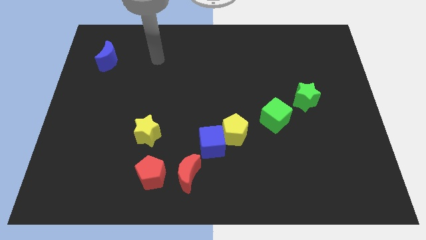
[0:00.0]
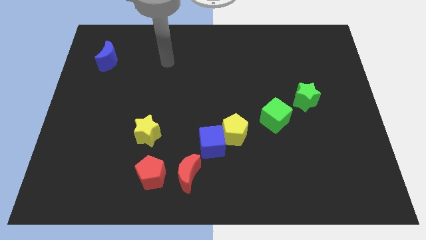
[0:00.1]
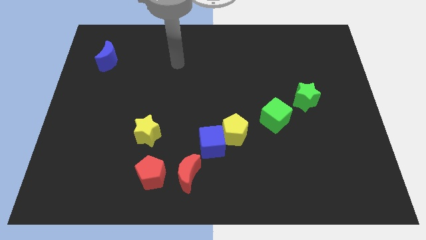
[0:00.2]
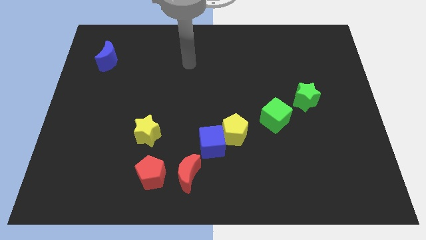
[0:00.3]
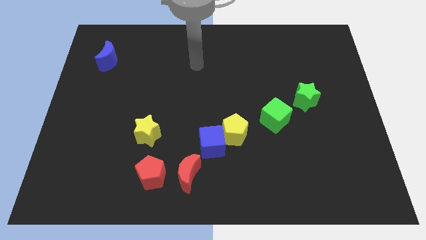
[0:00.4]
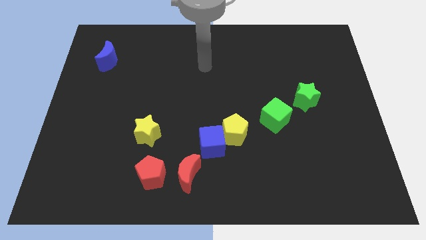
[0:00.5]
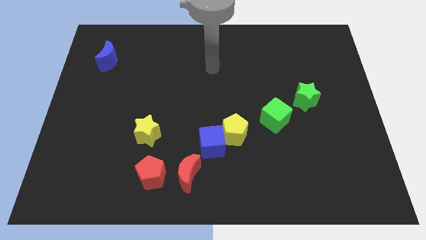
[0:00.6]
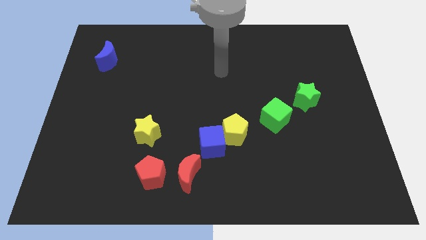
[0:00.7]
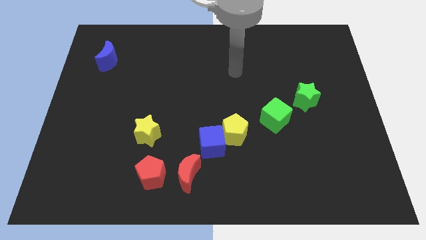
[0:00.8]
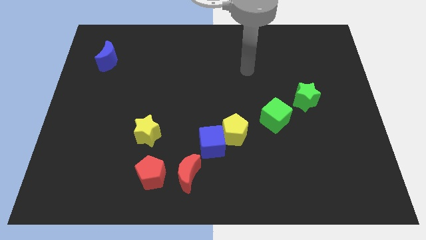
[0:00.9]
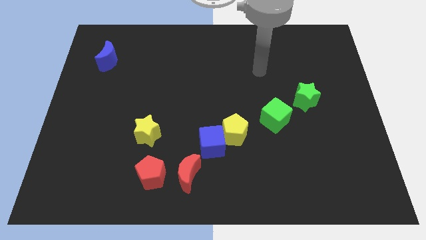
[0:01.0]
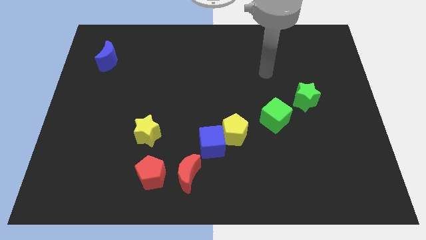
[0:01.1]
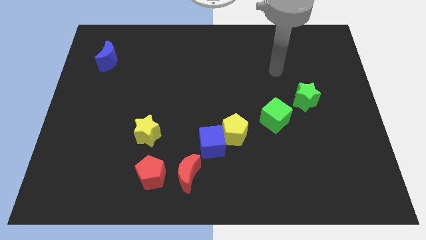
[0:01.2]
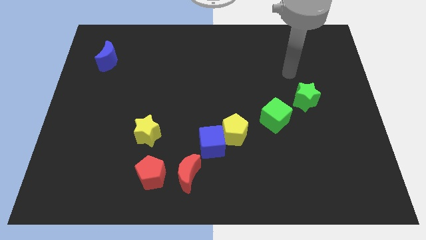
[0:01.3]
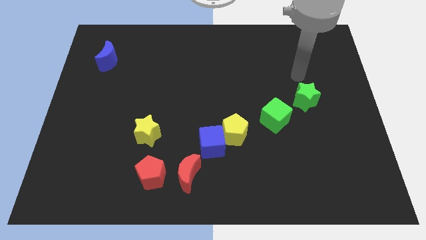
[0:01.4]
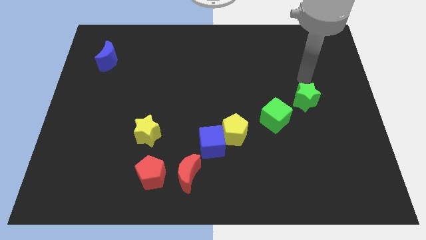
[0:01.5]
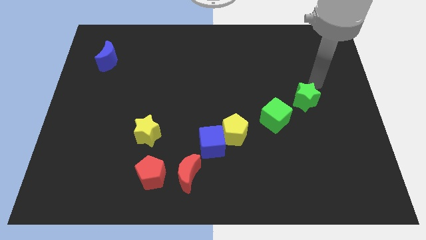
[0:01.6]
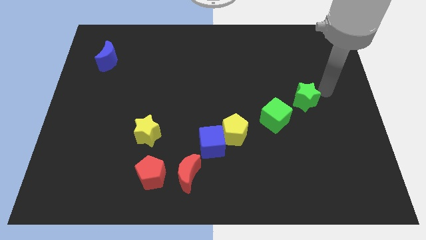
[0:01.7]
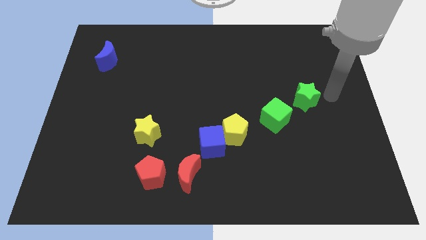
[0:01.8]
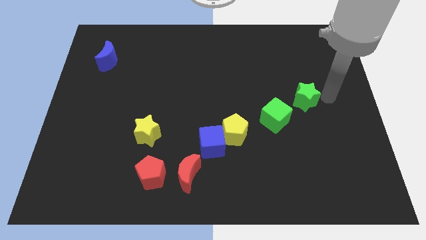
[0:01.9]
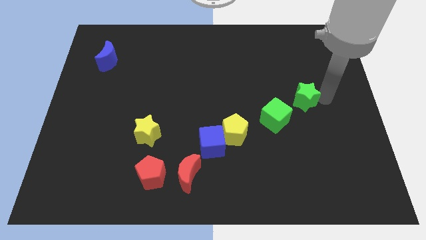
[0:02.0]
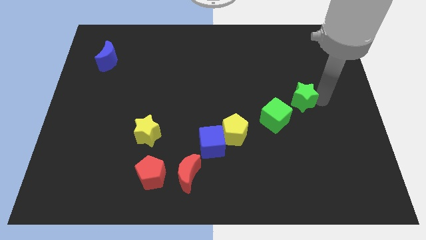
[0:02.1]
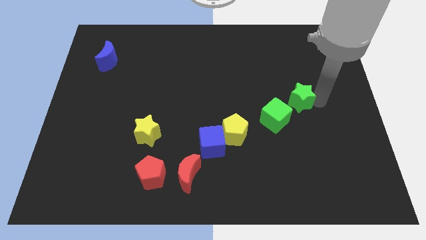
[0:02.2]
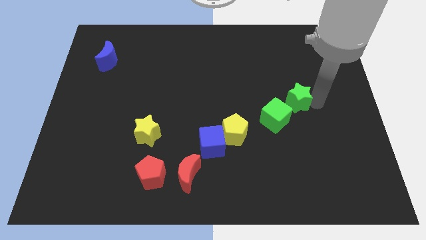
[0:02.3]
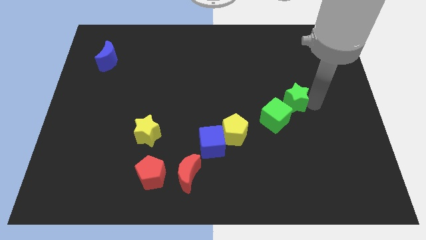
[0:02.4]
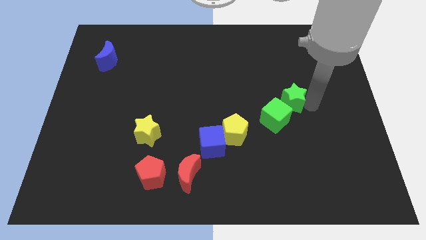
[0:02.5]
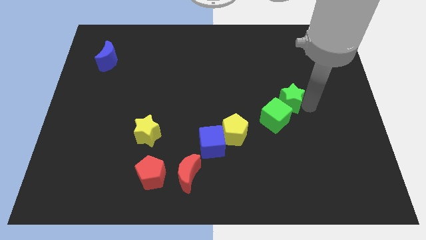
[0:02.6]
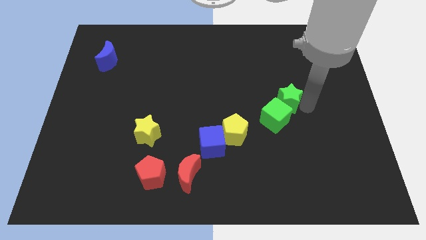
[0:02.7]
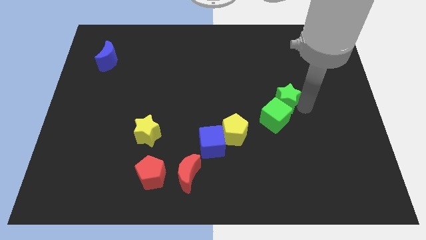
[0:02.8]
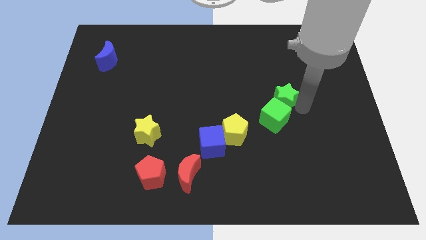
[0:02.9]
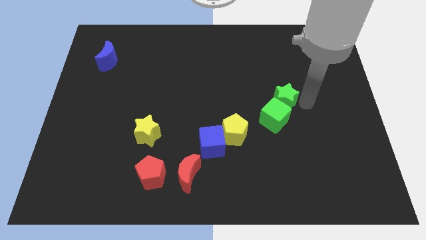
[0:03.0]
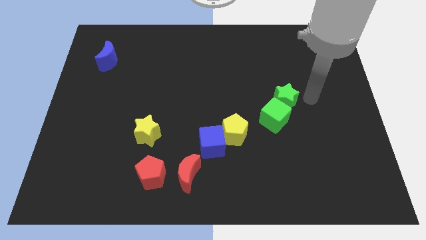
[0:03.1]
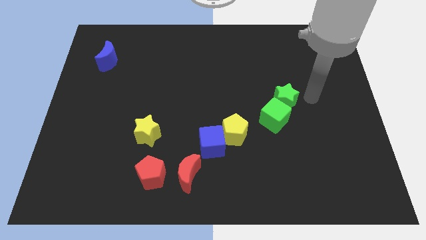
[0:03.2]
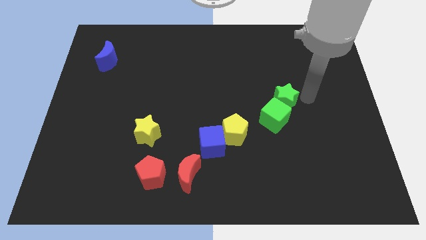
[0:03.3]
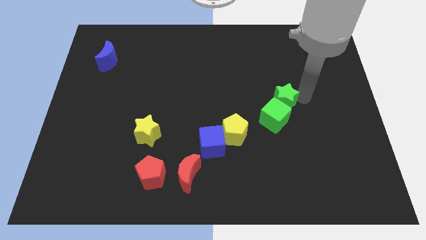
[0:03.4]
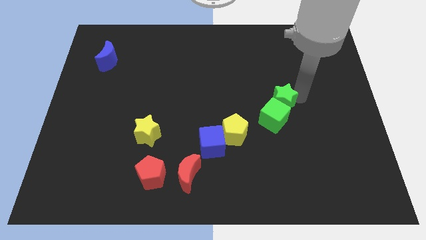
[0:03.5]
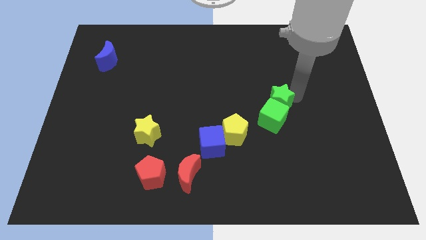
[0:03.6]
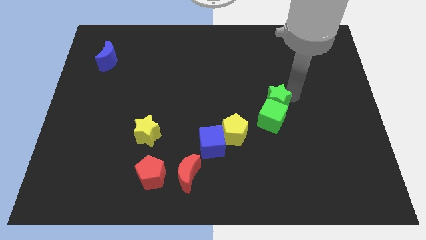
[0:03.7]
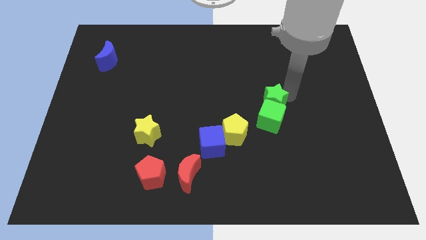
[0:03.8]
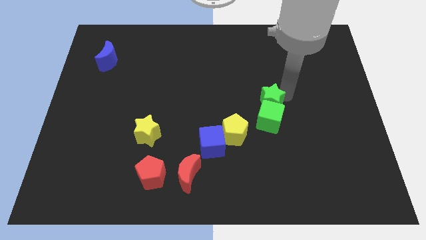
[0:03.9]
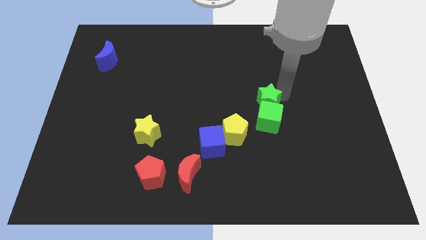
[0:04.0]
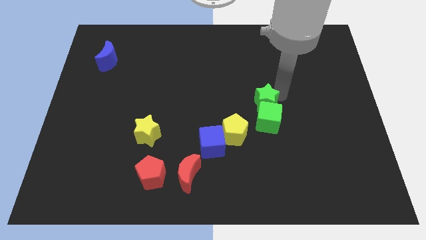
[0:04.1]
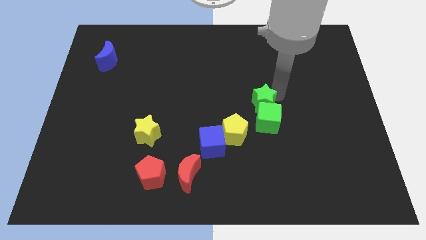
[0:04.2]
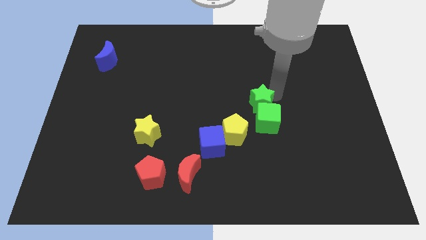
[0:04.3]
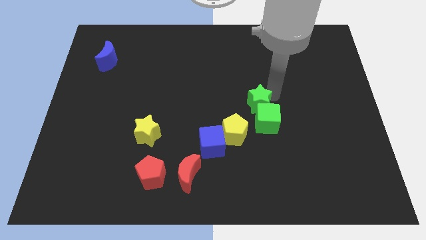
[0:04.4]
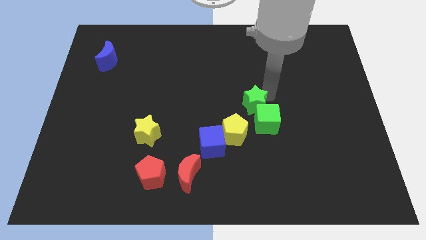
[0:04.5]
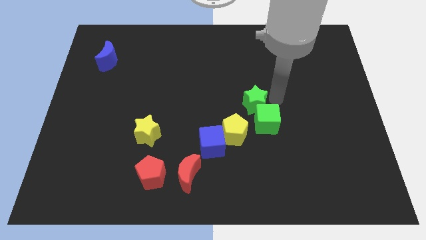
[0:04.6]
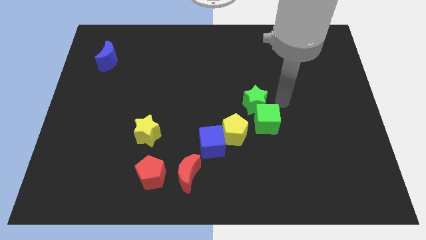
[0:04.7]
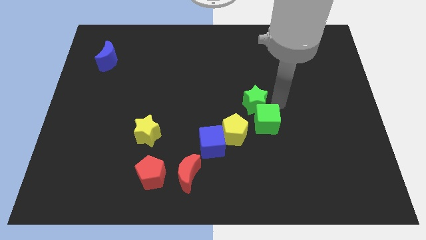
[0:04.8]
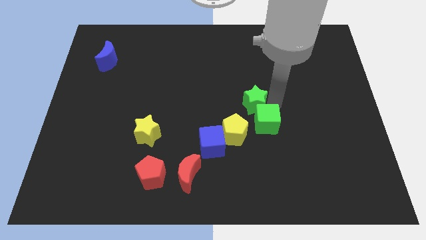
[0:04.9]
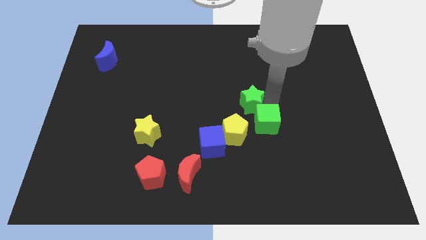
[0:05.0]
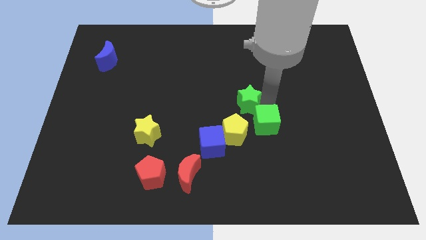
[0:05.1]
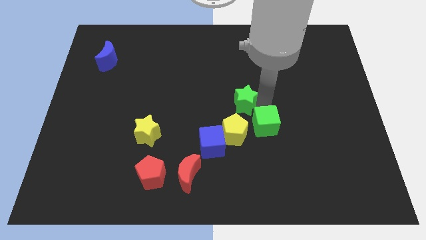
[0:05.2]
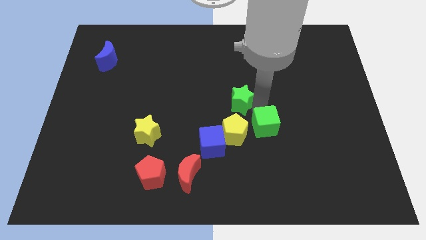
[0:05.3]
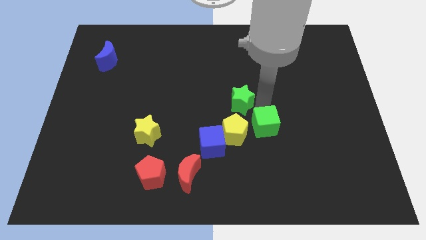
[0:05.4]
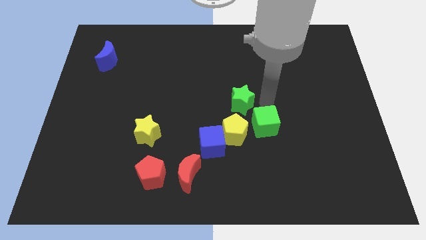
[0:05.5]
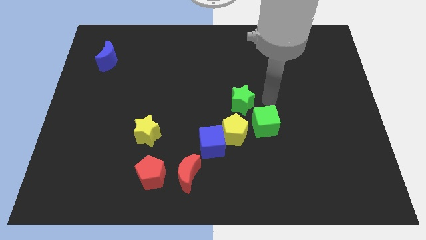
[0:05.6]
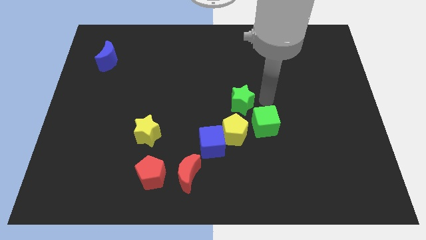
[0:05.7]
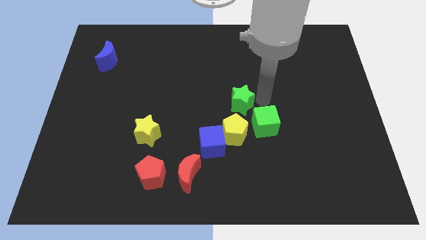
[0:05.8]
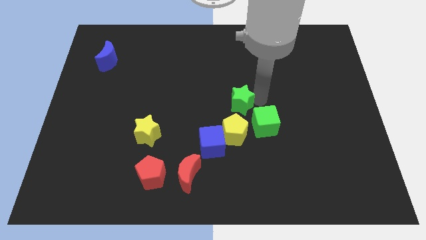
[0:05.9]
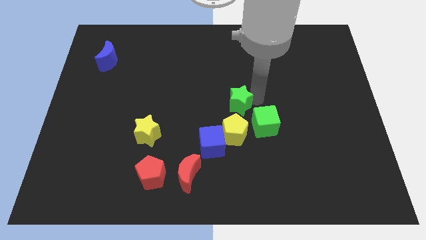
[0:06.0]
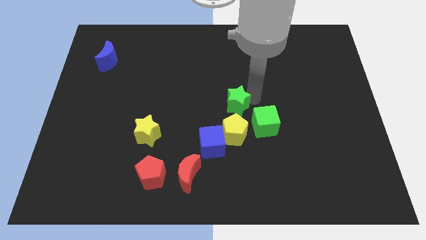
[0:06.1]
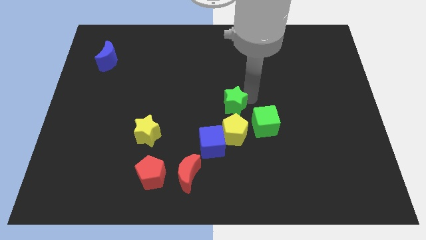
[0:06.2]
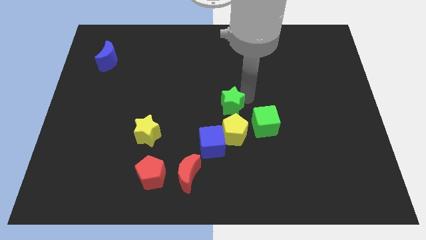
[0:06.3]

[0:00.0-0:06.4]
put the green star to the top of the blue cube

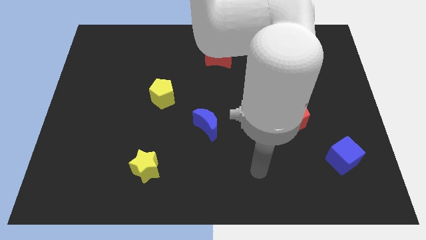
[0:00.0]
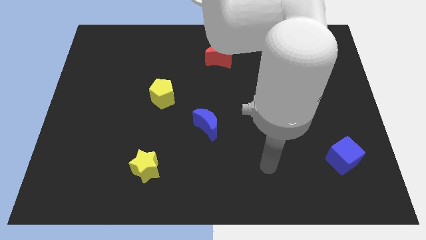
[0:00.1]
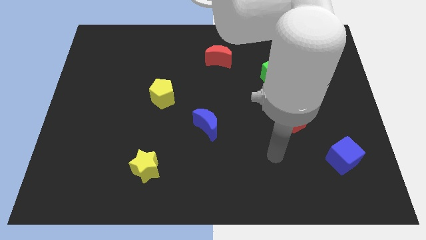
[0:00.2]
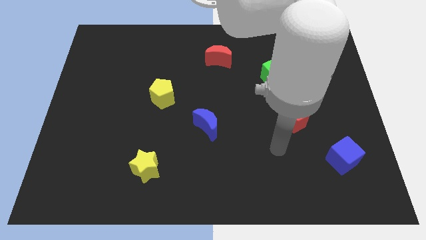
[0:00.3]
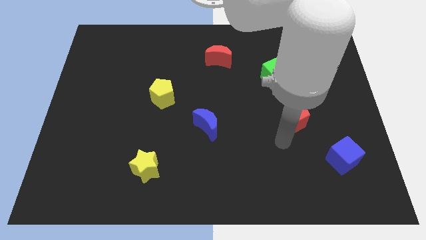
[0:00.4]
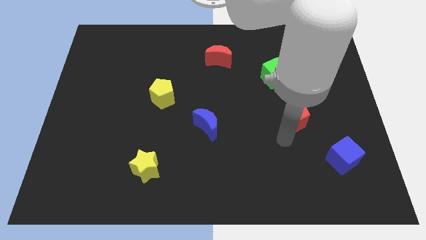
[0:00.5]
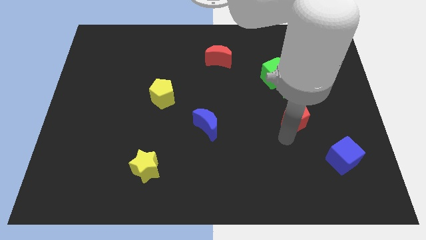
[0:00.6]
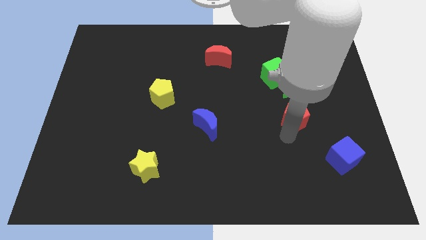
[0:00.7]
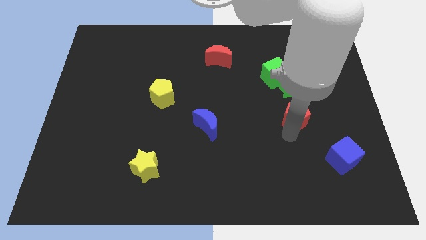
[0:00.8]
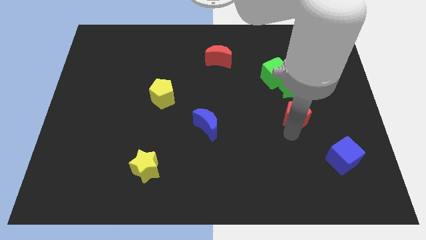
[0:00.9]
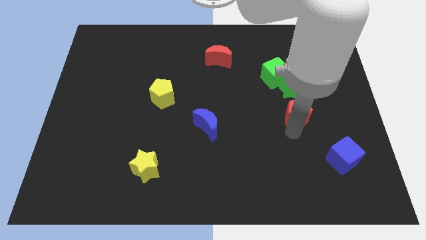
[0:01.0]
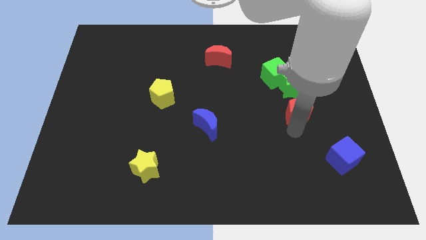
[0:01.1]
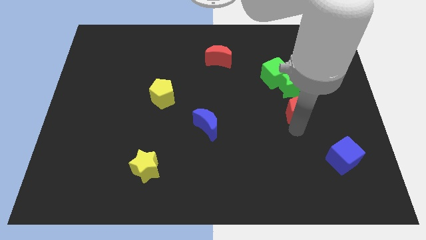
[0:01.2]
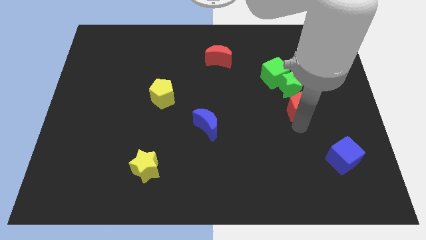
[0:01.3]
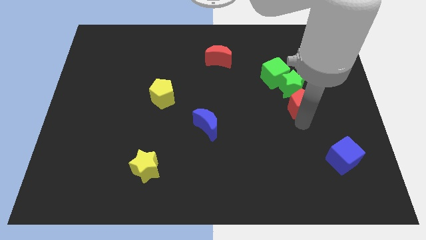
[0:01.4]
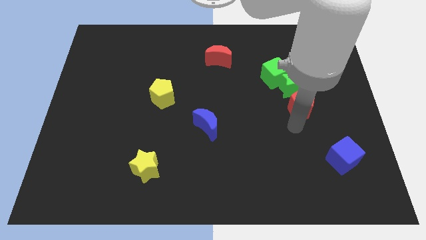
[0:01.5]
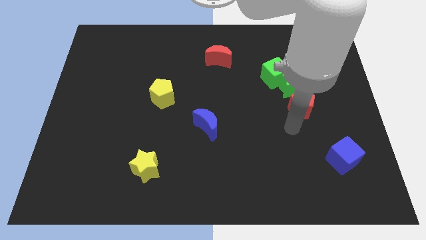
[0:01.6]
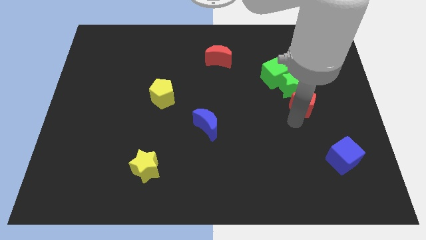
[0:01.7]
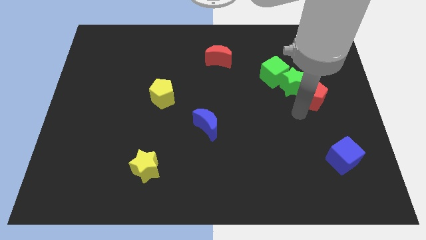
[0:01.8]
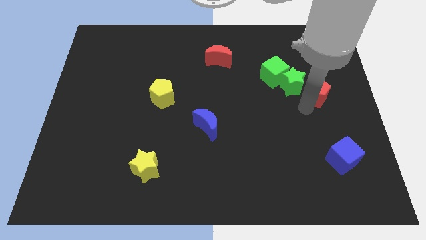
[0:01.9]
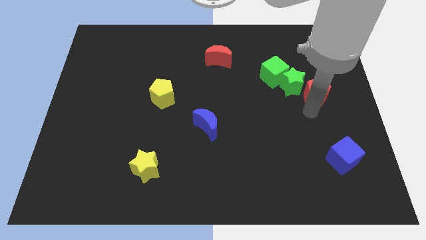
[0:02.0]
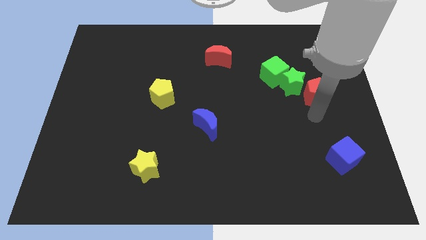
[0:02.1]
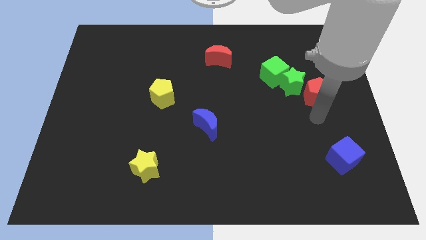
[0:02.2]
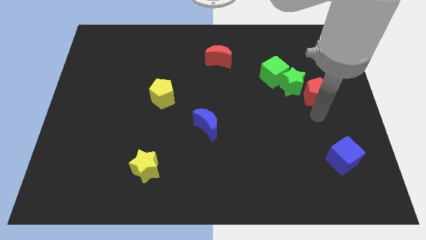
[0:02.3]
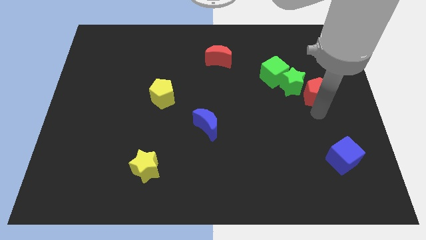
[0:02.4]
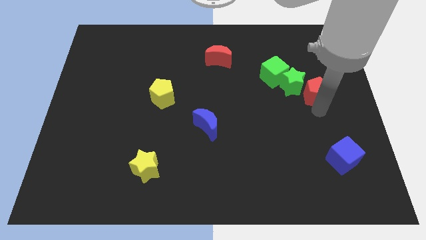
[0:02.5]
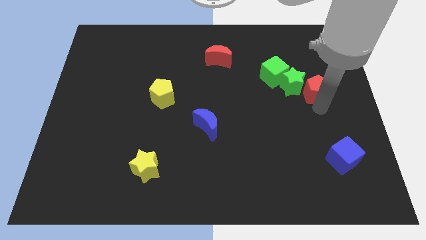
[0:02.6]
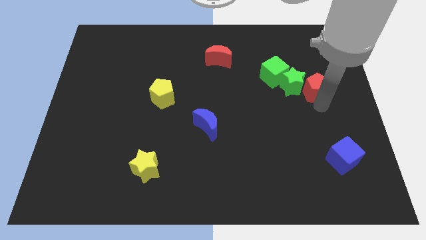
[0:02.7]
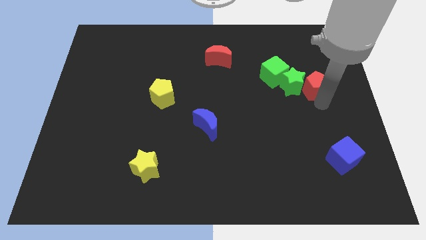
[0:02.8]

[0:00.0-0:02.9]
push the red pentagon just right of the green cube
